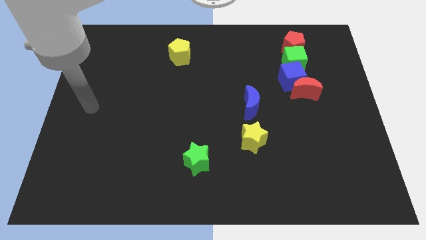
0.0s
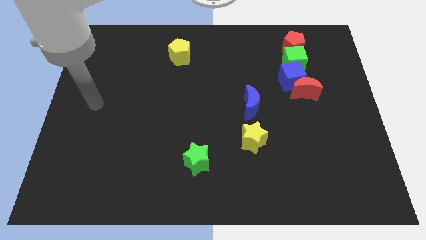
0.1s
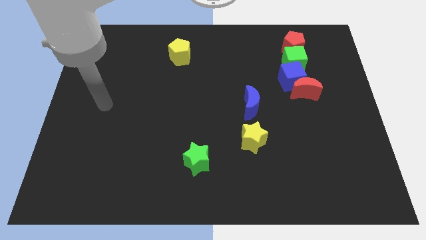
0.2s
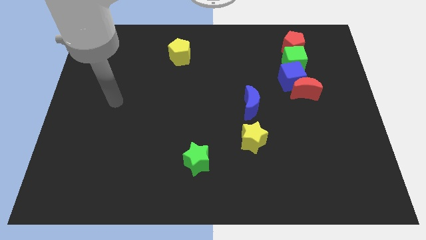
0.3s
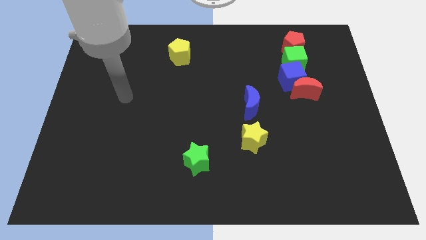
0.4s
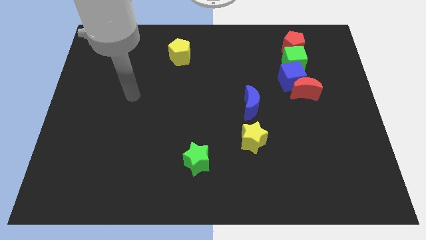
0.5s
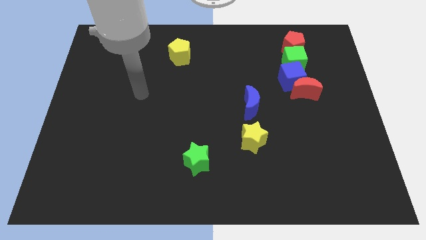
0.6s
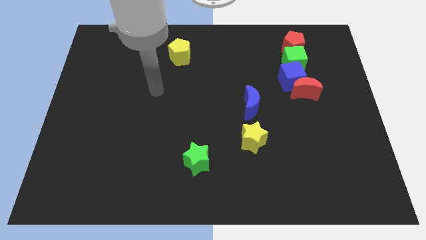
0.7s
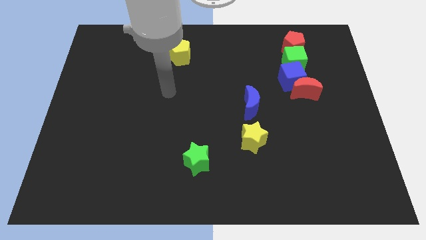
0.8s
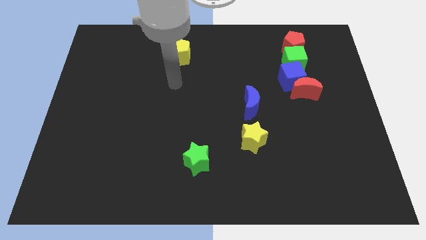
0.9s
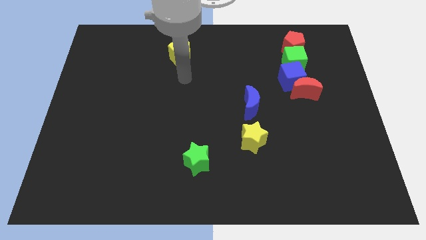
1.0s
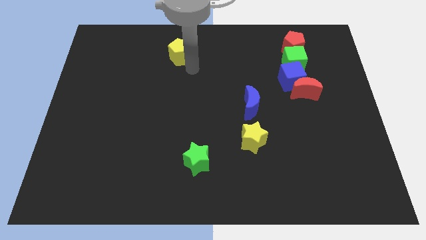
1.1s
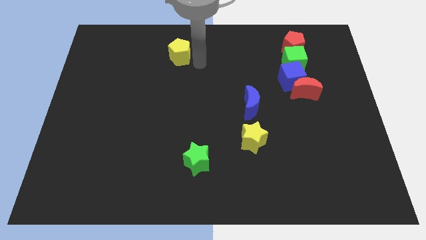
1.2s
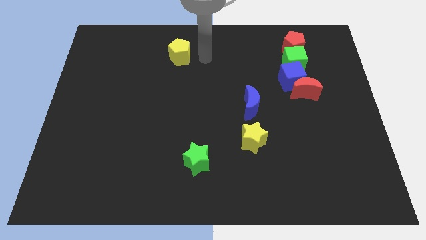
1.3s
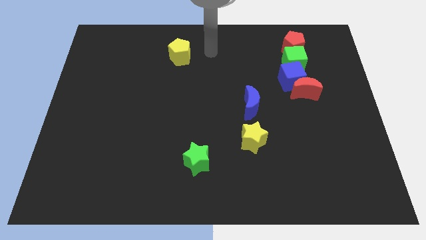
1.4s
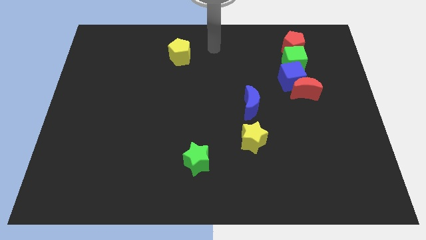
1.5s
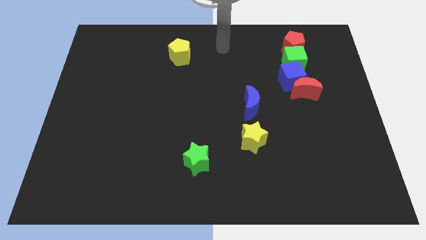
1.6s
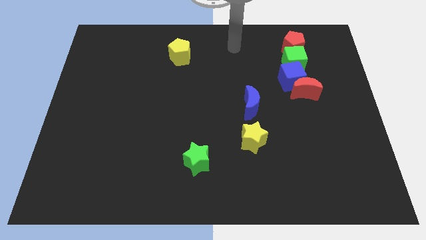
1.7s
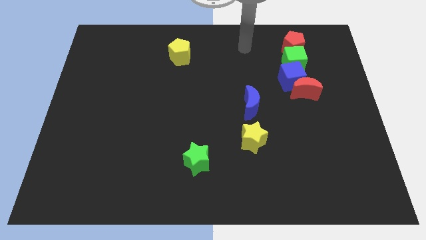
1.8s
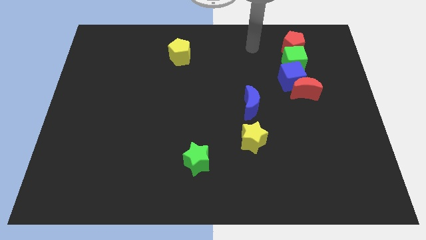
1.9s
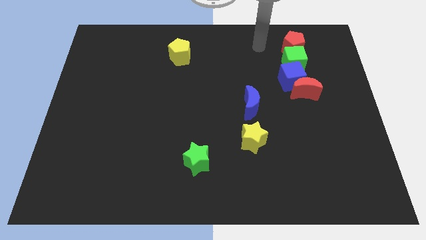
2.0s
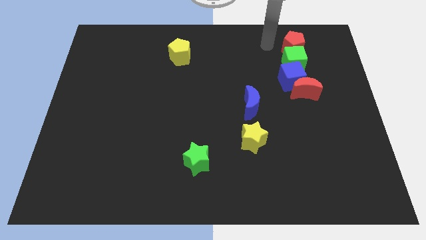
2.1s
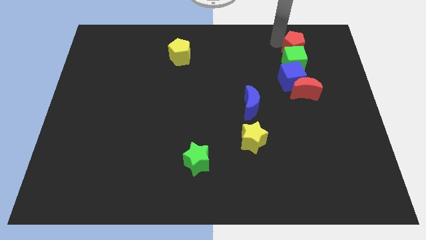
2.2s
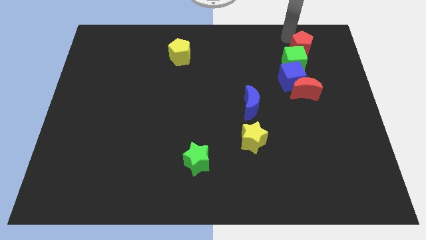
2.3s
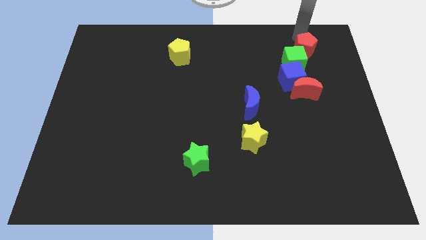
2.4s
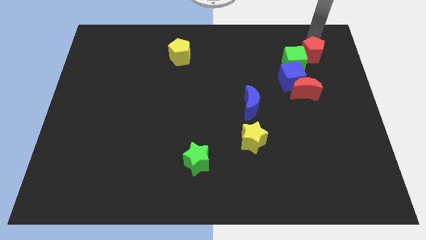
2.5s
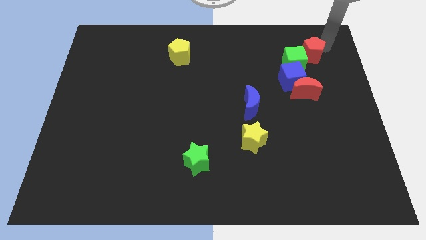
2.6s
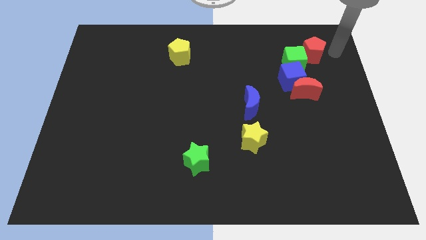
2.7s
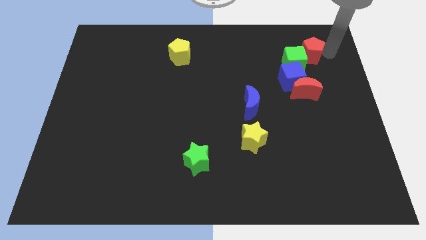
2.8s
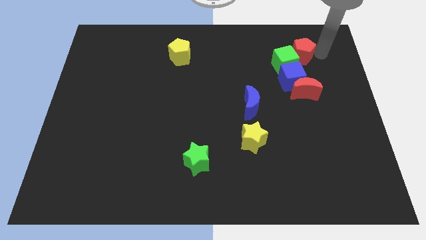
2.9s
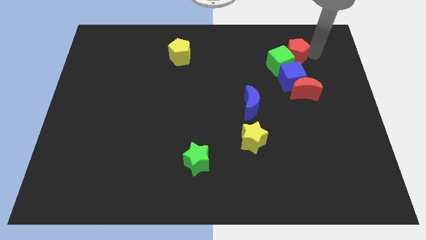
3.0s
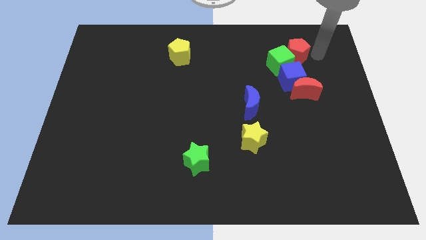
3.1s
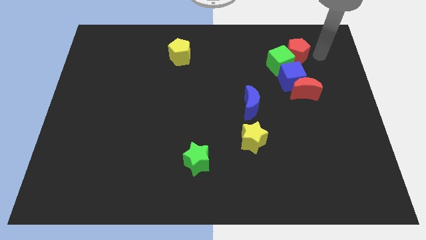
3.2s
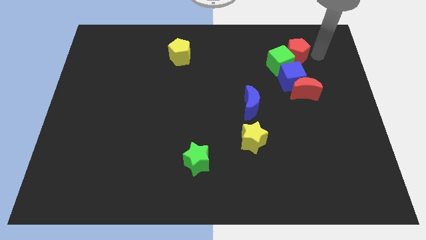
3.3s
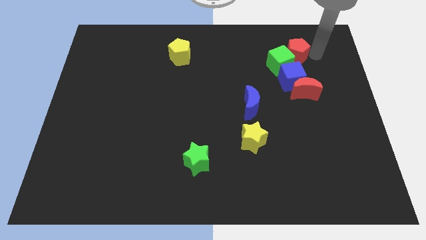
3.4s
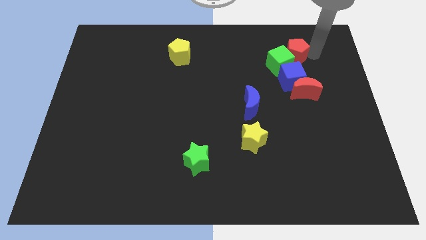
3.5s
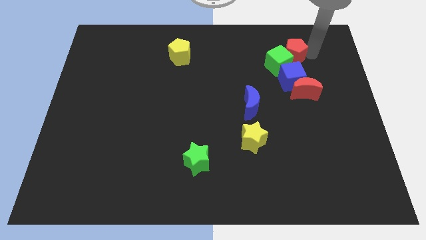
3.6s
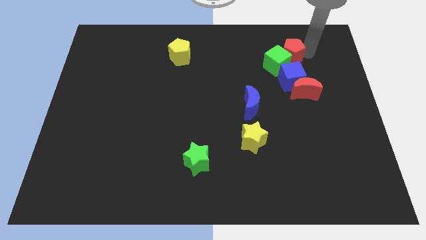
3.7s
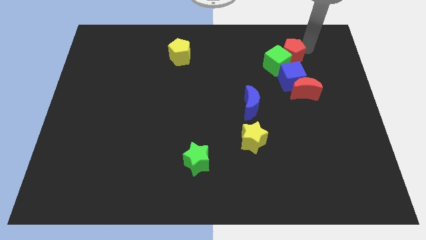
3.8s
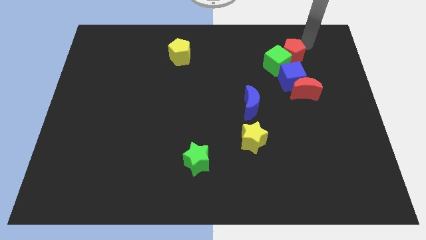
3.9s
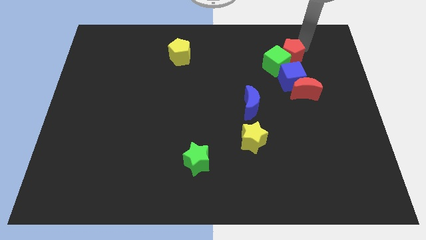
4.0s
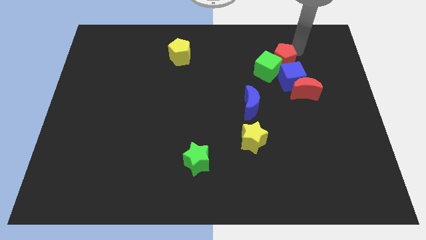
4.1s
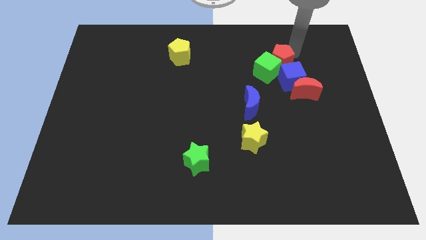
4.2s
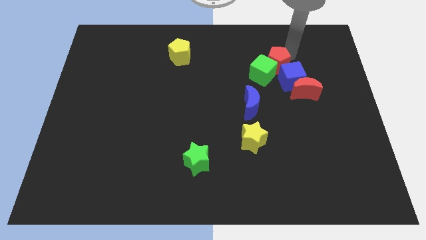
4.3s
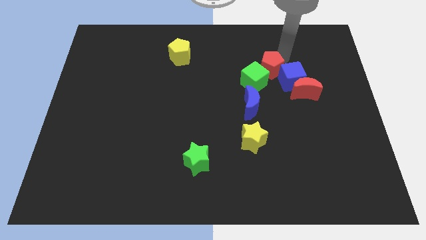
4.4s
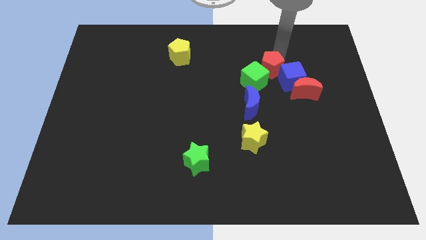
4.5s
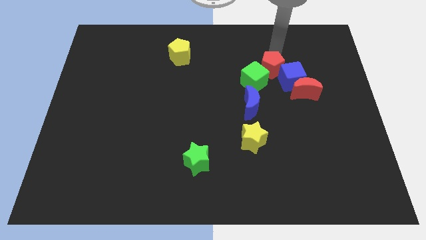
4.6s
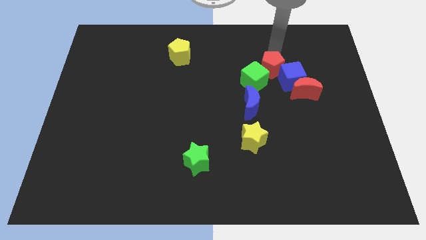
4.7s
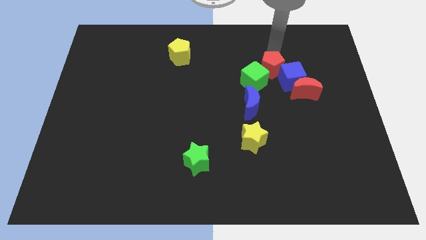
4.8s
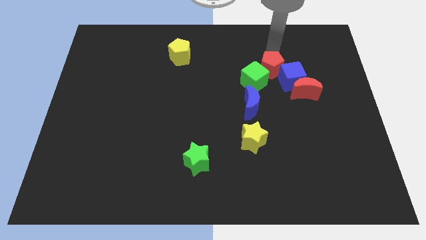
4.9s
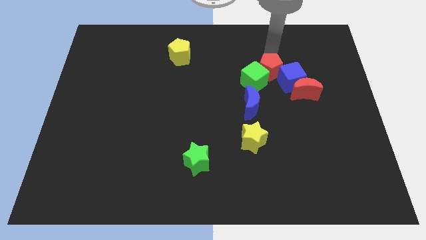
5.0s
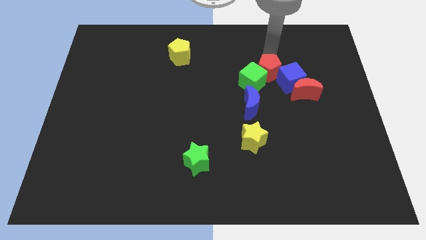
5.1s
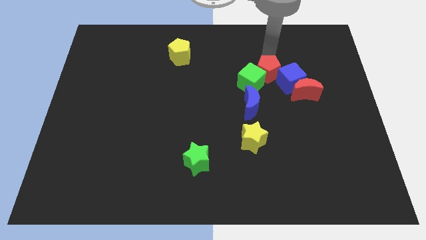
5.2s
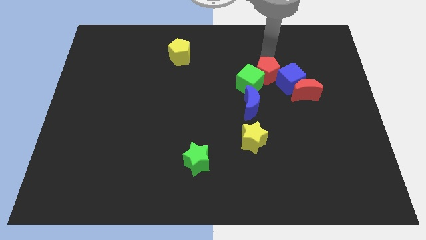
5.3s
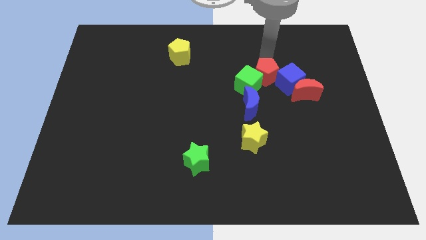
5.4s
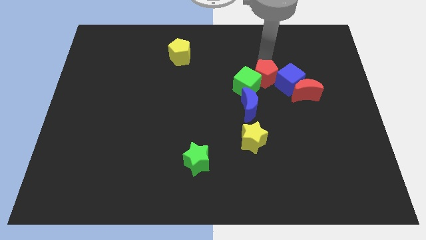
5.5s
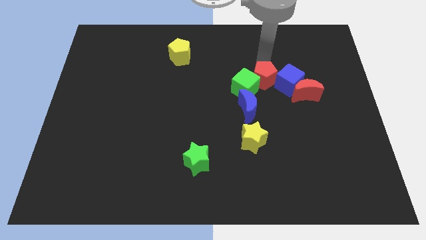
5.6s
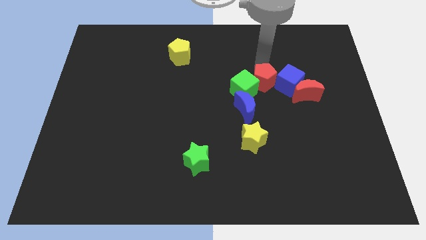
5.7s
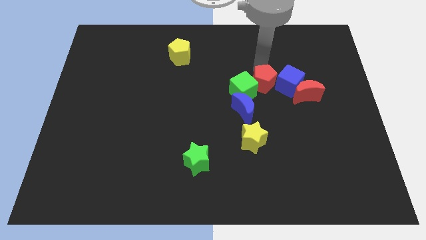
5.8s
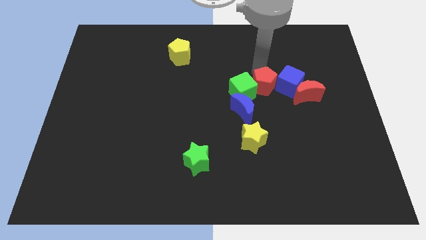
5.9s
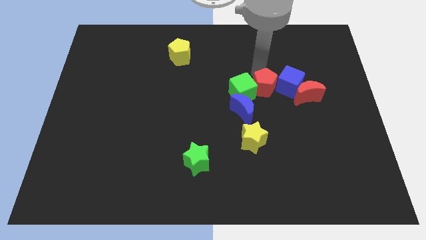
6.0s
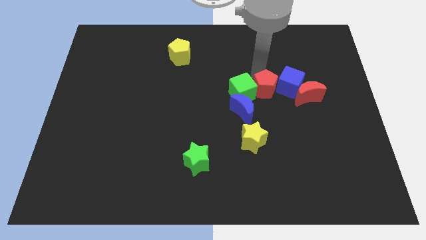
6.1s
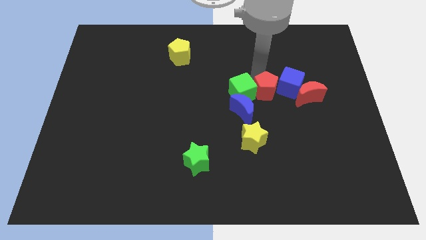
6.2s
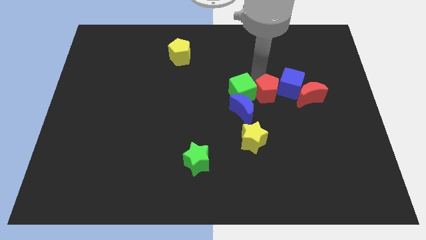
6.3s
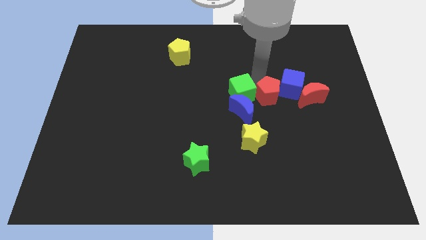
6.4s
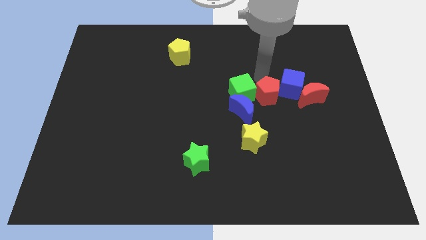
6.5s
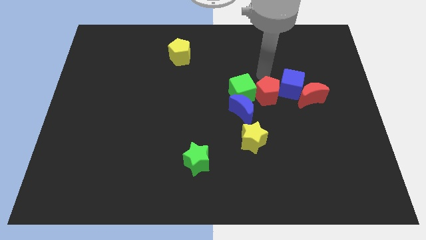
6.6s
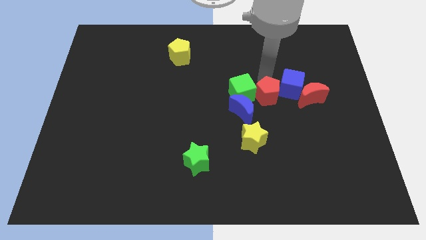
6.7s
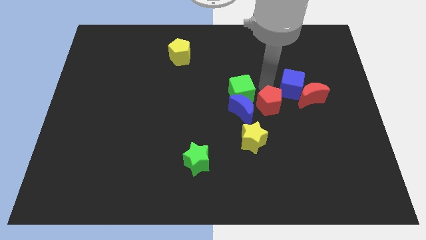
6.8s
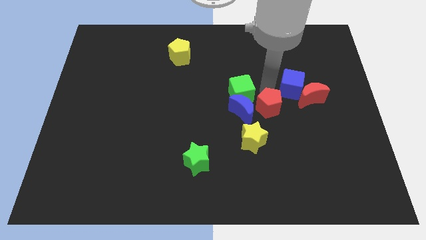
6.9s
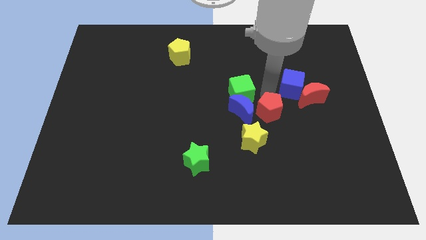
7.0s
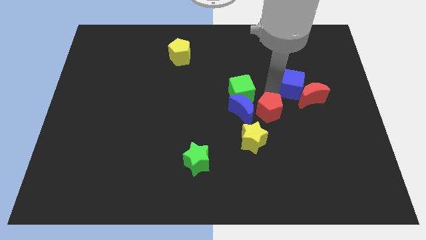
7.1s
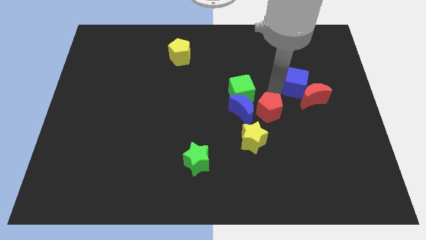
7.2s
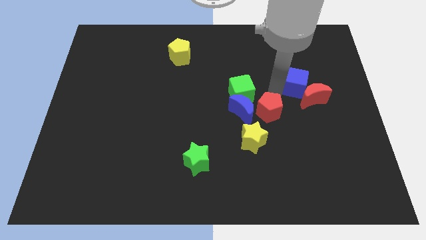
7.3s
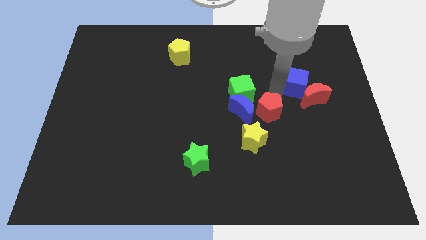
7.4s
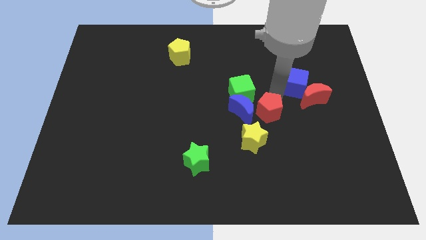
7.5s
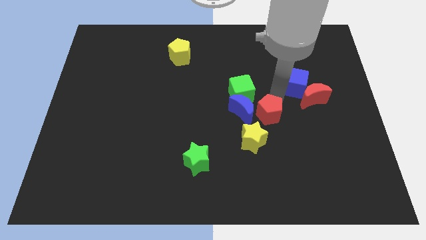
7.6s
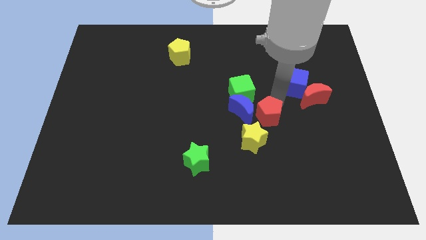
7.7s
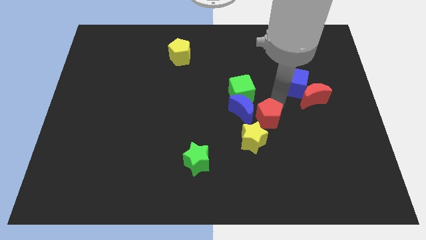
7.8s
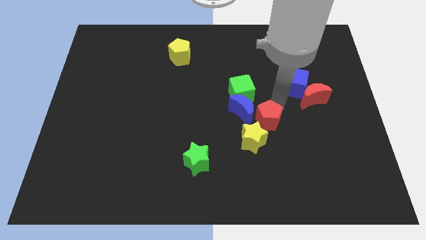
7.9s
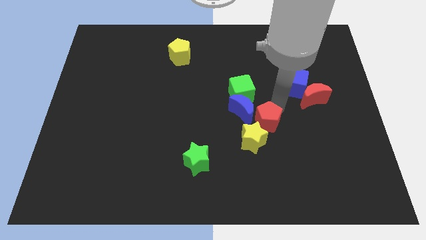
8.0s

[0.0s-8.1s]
slide the red pentagon next to the yellow star
